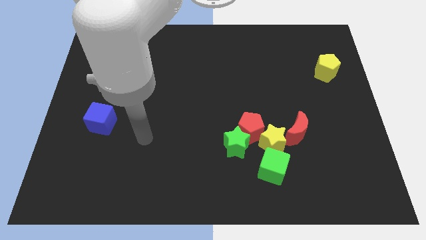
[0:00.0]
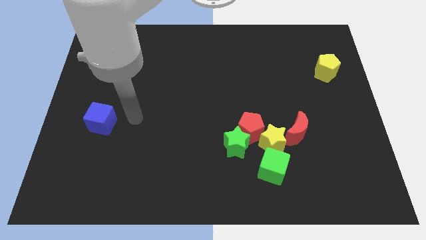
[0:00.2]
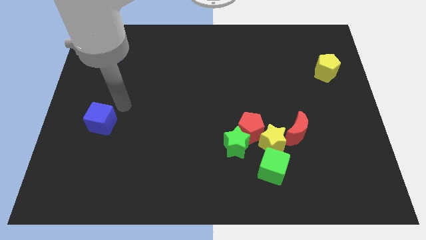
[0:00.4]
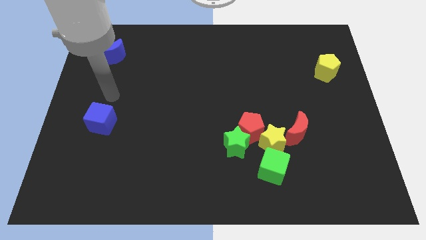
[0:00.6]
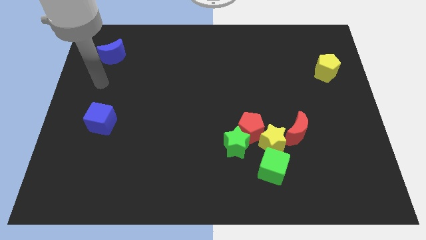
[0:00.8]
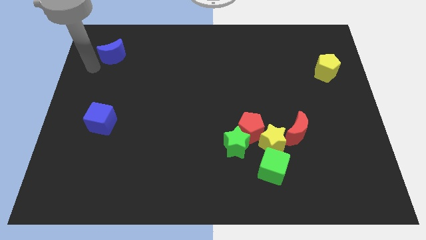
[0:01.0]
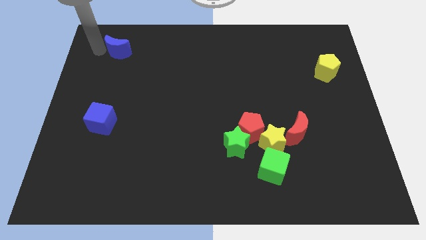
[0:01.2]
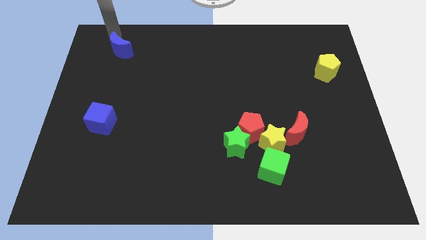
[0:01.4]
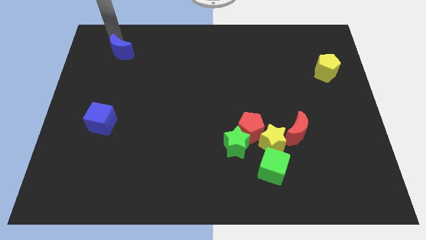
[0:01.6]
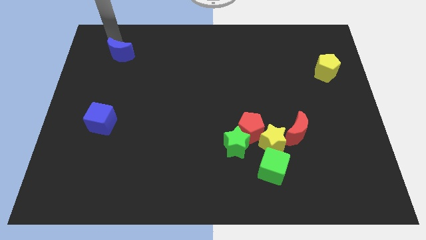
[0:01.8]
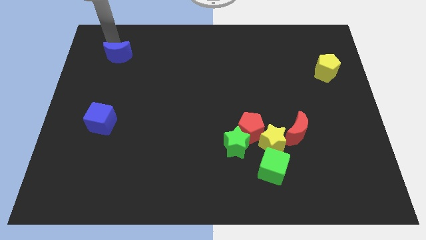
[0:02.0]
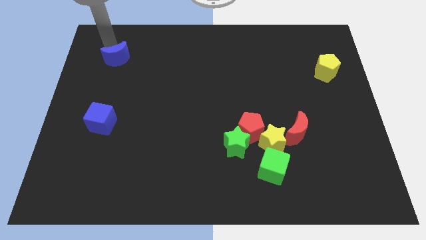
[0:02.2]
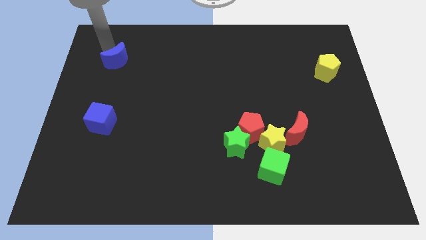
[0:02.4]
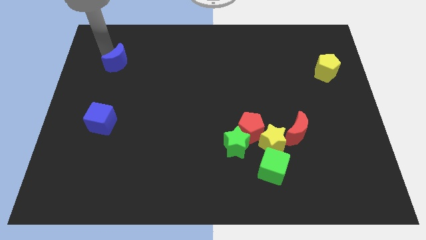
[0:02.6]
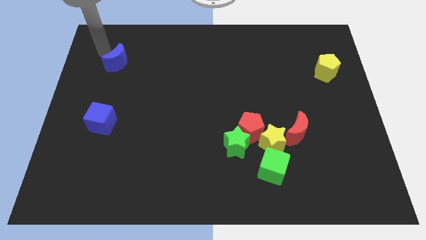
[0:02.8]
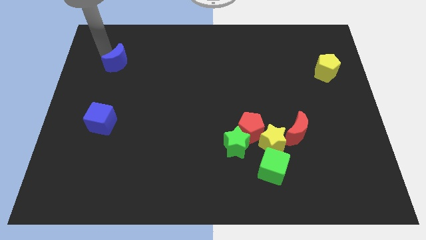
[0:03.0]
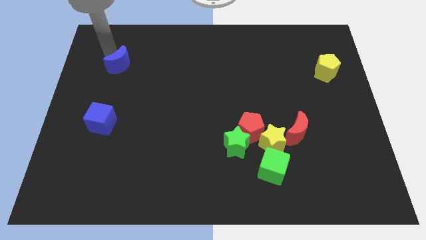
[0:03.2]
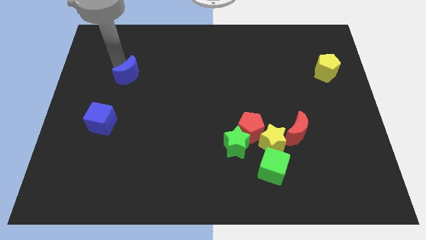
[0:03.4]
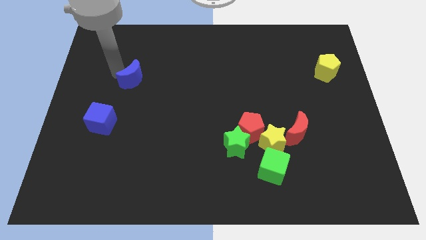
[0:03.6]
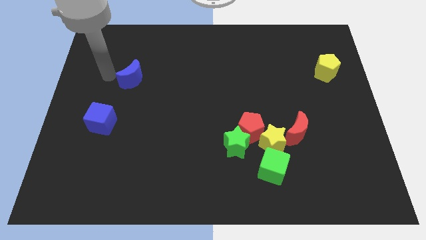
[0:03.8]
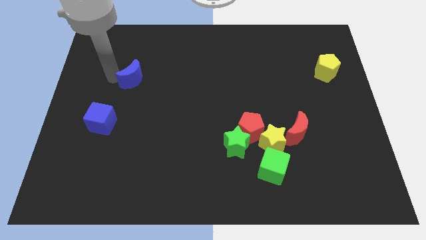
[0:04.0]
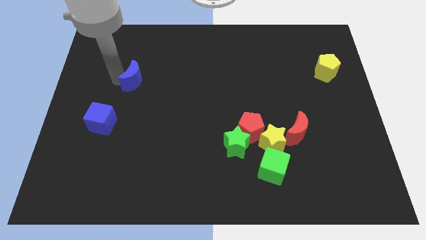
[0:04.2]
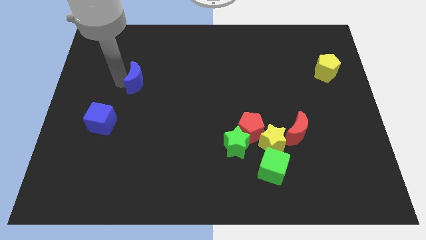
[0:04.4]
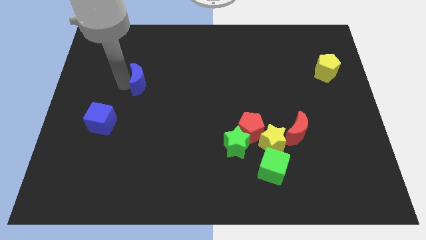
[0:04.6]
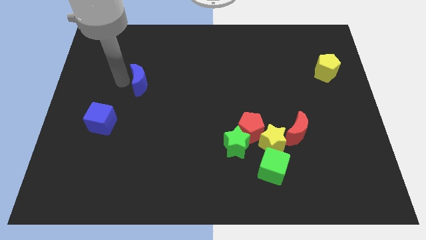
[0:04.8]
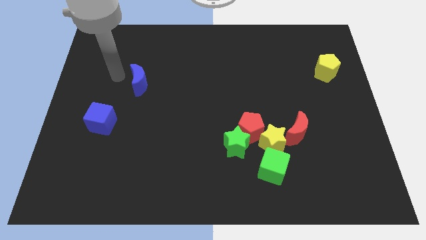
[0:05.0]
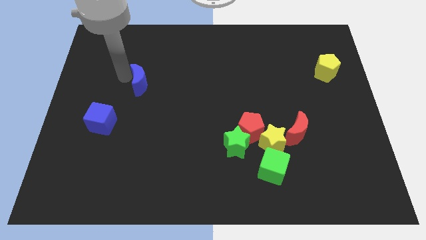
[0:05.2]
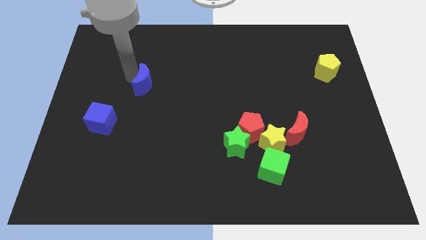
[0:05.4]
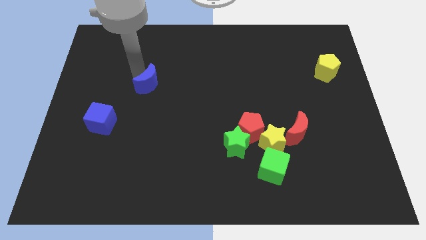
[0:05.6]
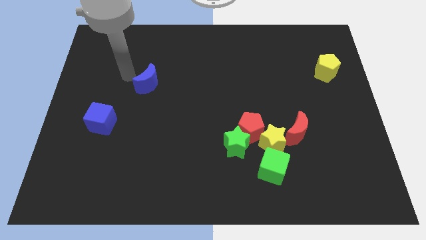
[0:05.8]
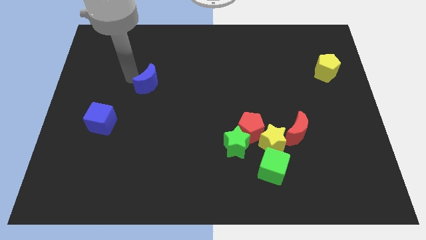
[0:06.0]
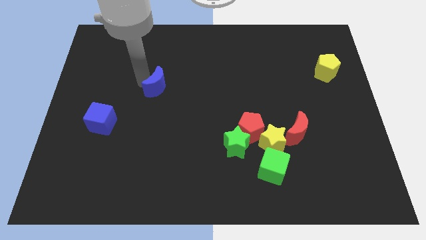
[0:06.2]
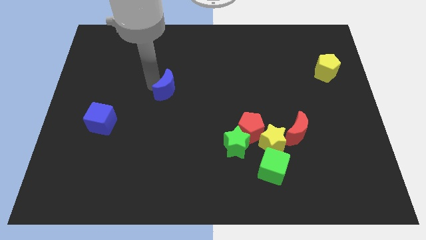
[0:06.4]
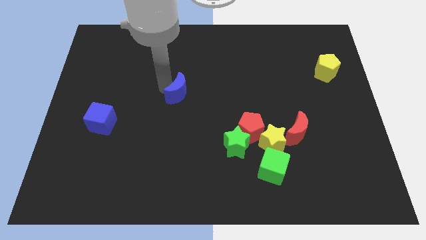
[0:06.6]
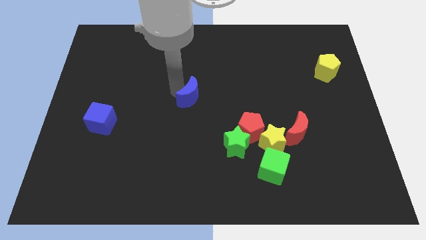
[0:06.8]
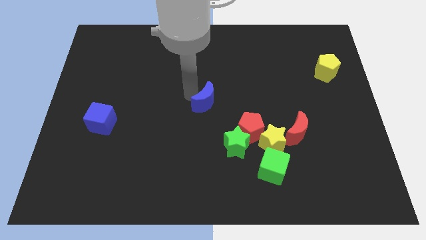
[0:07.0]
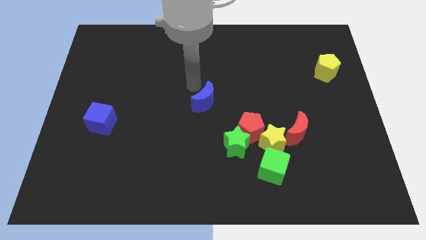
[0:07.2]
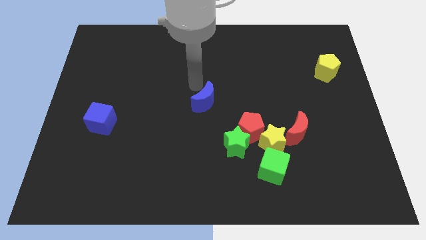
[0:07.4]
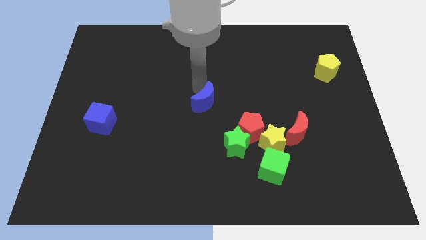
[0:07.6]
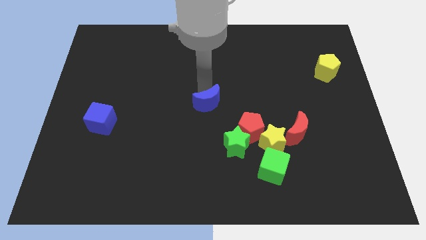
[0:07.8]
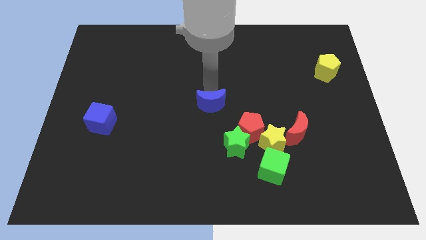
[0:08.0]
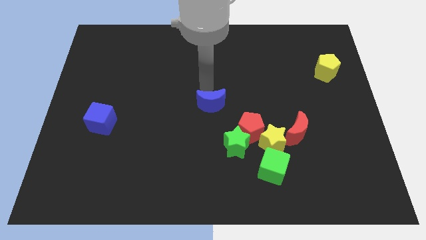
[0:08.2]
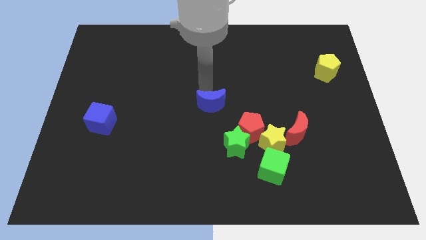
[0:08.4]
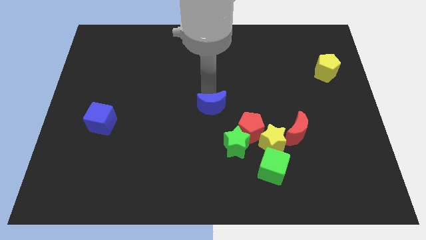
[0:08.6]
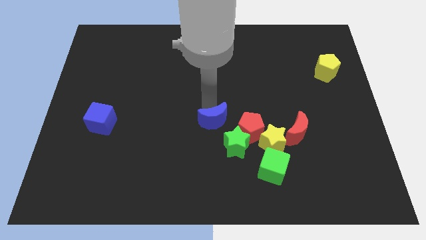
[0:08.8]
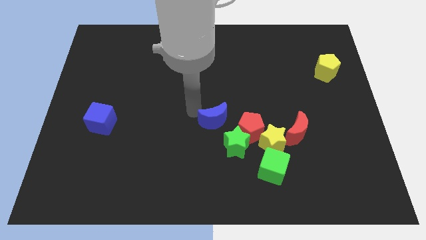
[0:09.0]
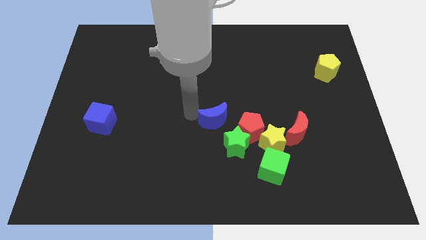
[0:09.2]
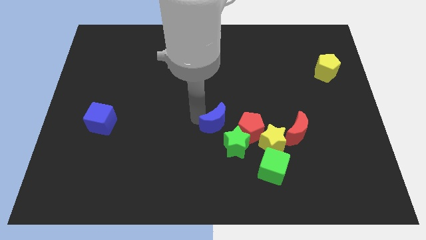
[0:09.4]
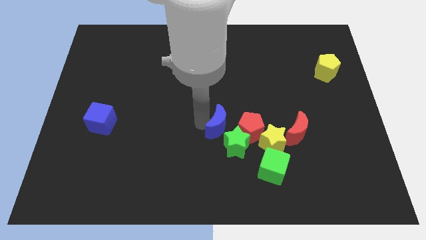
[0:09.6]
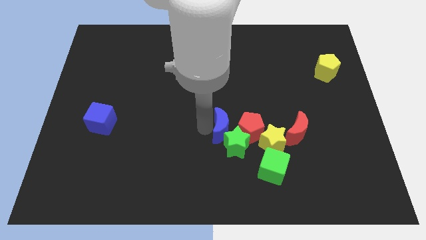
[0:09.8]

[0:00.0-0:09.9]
move the blue moon next to the red pentagon

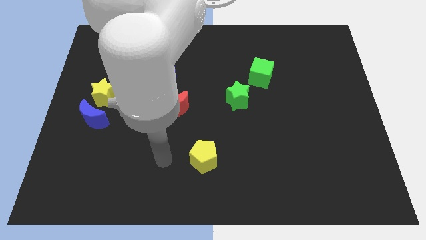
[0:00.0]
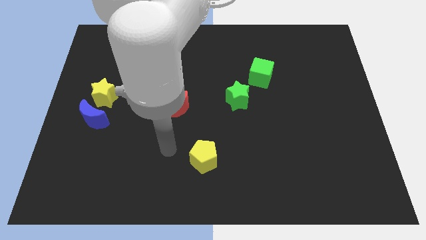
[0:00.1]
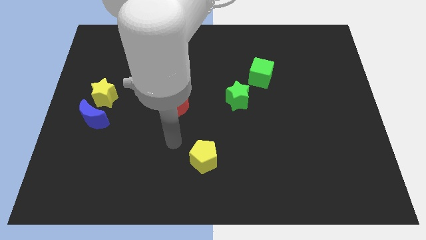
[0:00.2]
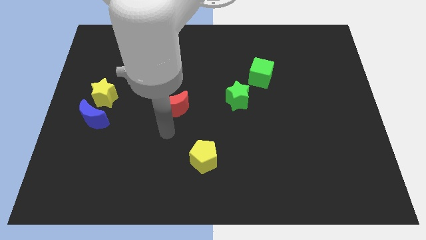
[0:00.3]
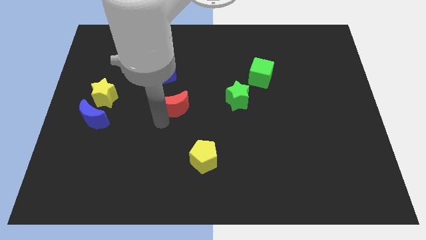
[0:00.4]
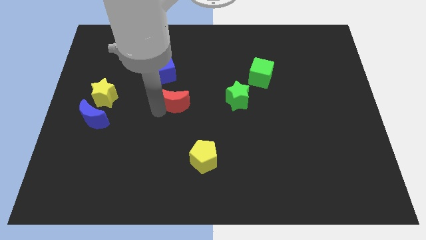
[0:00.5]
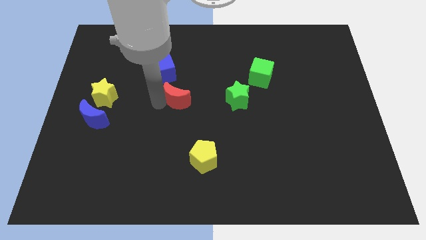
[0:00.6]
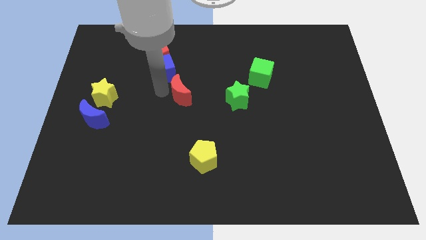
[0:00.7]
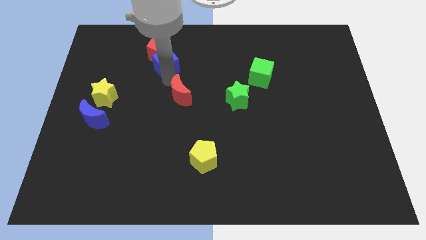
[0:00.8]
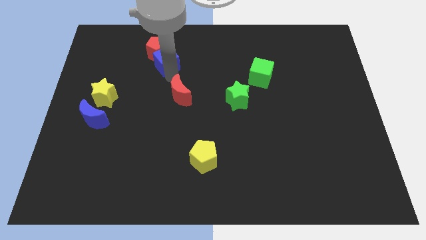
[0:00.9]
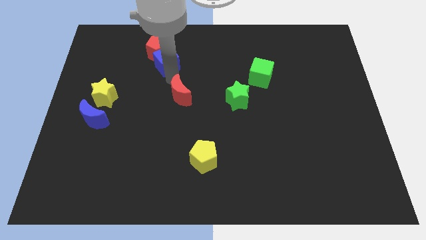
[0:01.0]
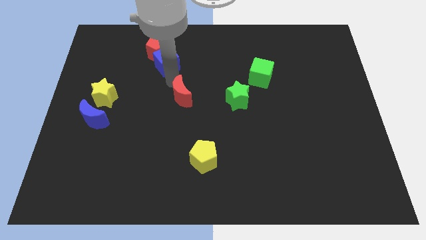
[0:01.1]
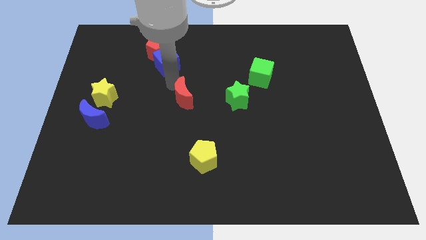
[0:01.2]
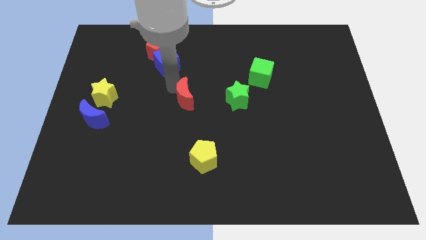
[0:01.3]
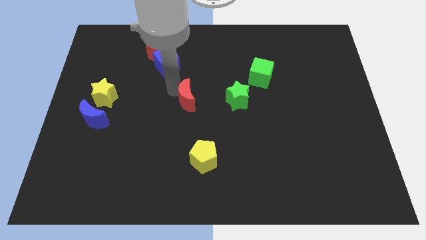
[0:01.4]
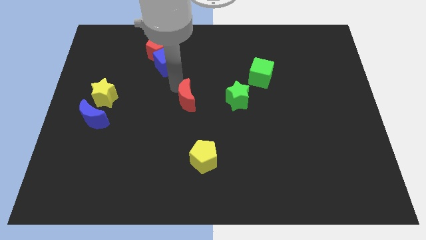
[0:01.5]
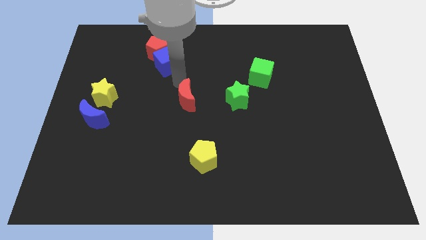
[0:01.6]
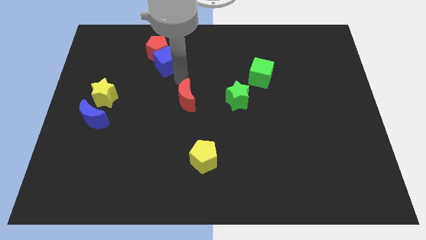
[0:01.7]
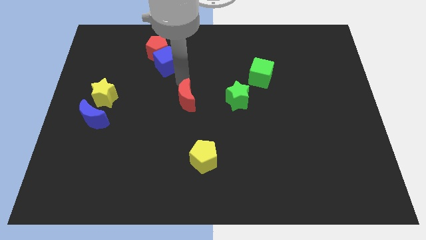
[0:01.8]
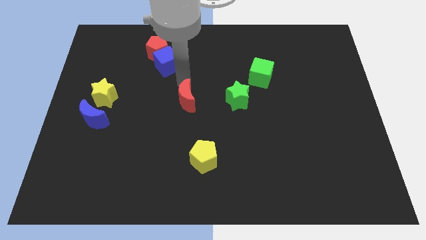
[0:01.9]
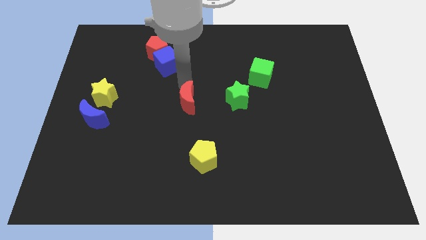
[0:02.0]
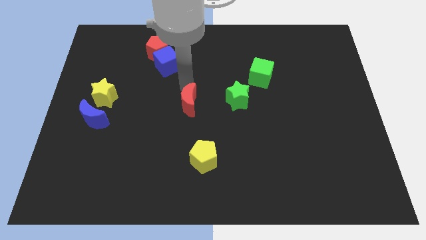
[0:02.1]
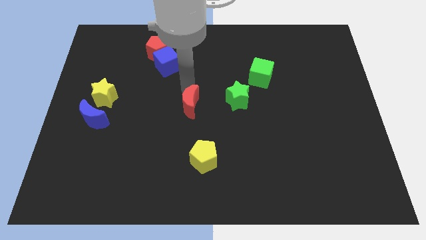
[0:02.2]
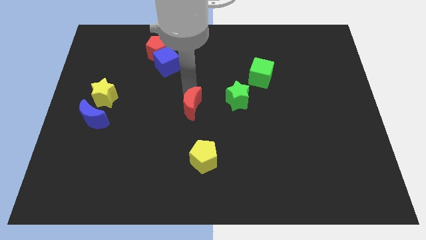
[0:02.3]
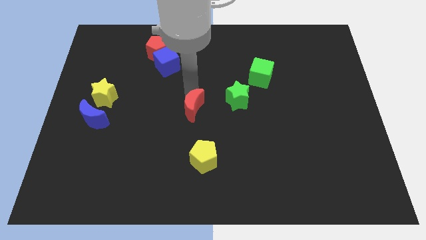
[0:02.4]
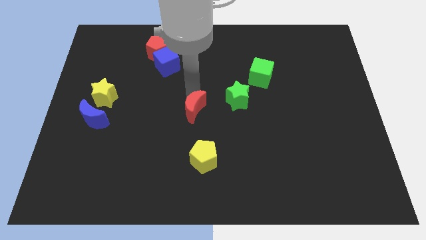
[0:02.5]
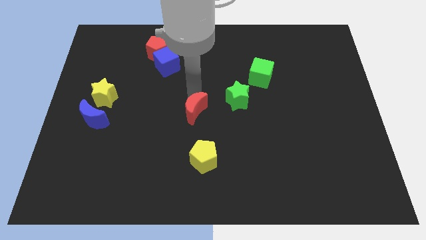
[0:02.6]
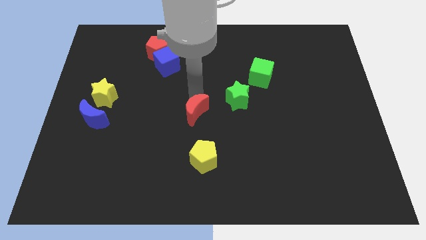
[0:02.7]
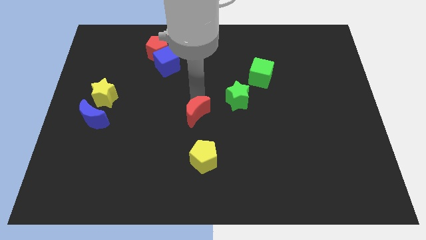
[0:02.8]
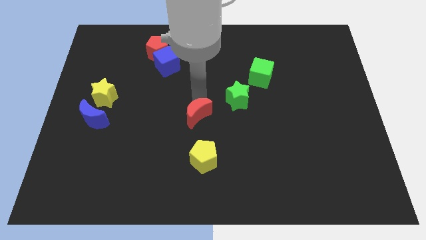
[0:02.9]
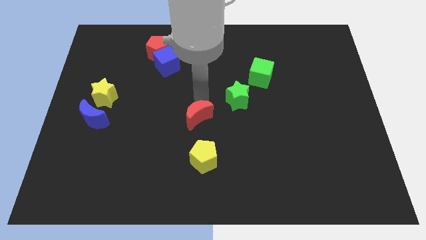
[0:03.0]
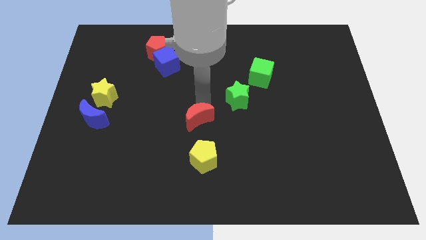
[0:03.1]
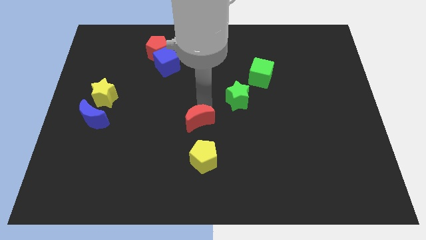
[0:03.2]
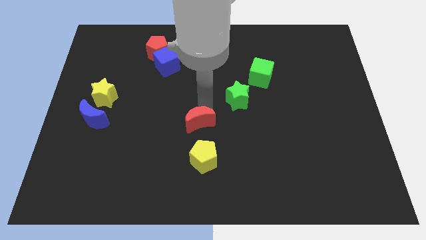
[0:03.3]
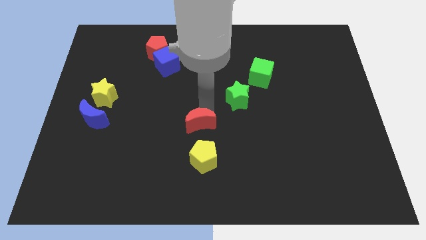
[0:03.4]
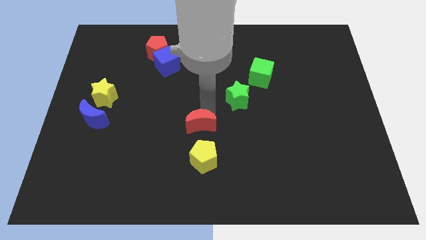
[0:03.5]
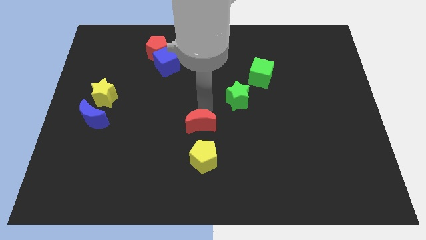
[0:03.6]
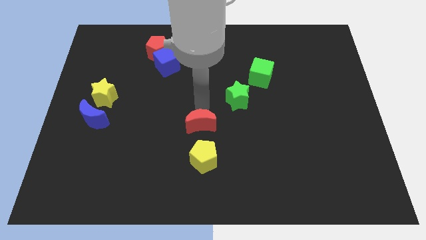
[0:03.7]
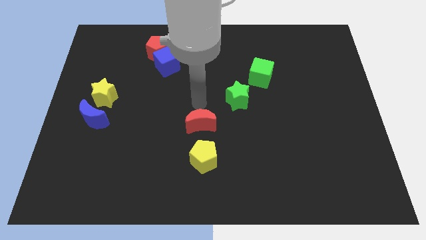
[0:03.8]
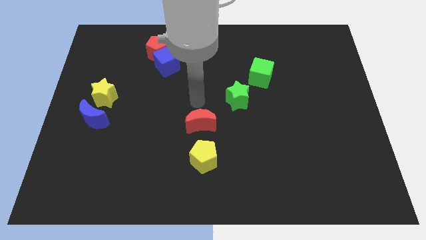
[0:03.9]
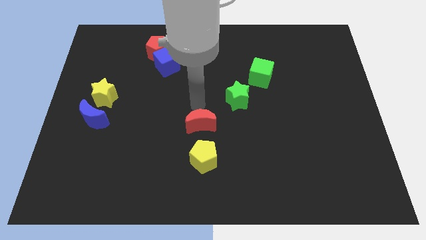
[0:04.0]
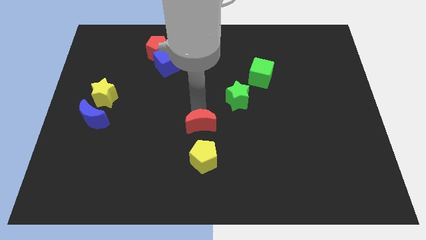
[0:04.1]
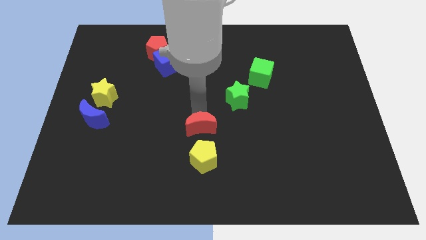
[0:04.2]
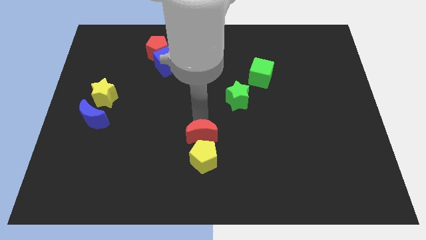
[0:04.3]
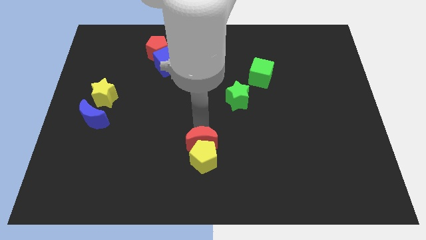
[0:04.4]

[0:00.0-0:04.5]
put the red moon close to the yellow pentagon
